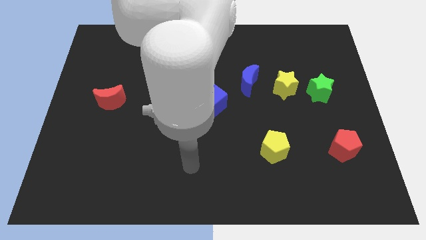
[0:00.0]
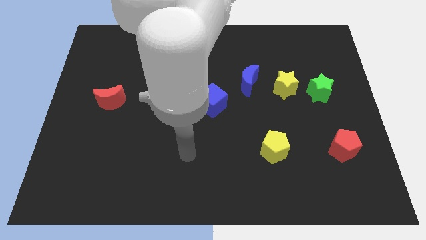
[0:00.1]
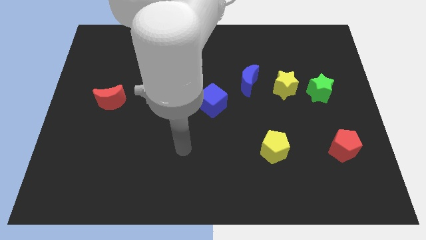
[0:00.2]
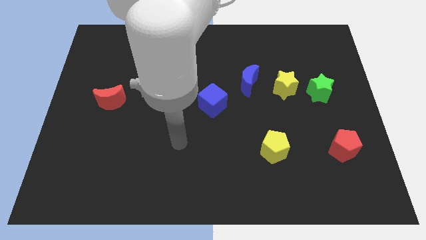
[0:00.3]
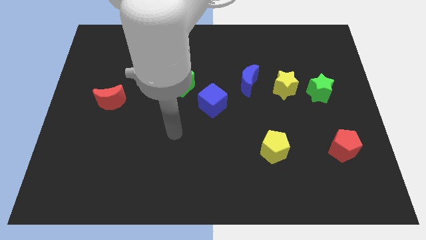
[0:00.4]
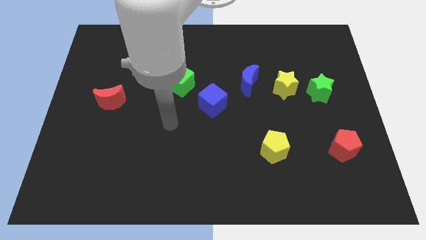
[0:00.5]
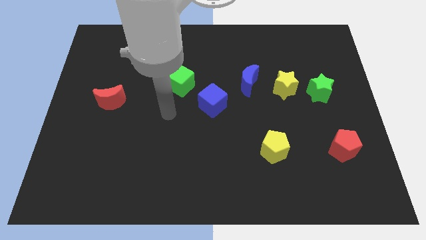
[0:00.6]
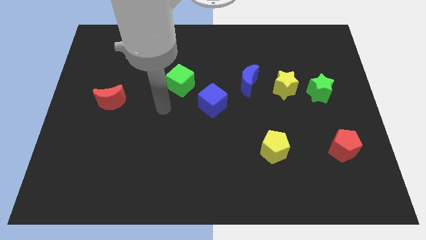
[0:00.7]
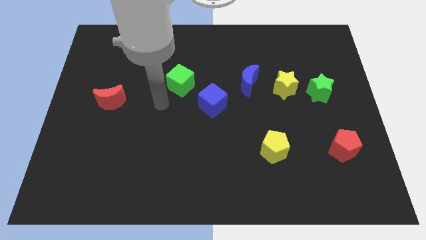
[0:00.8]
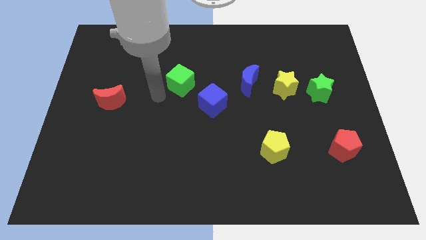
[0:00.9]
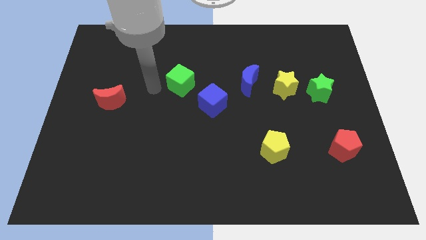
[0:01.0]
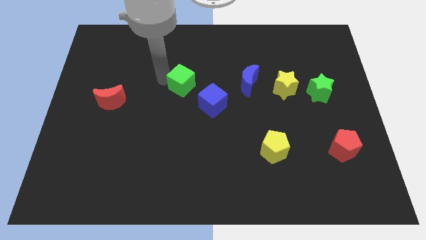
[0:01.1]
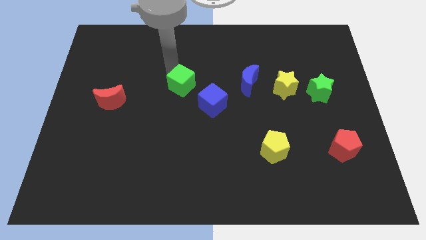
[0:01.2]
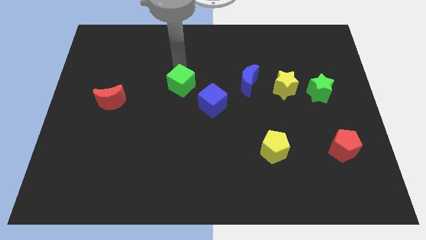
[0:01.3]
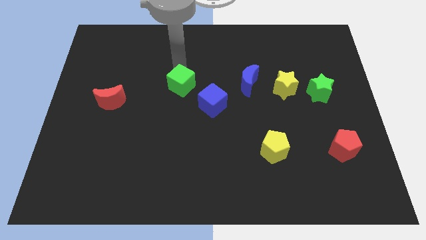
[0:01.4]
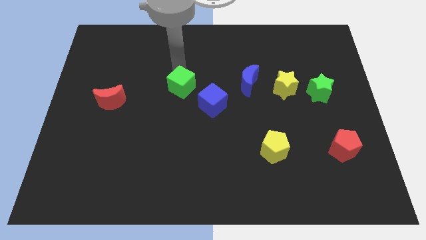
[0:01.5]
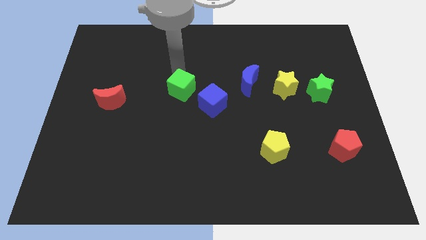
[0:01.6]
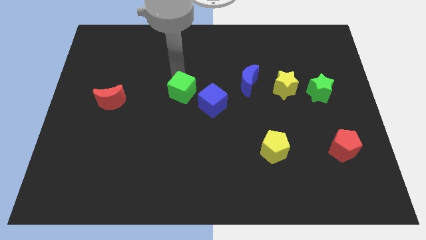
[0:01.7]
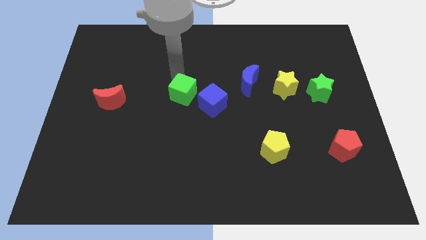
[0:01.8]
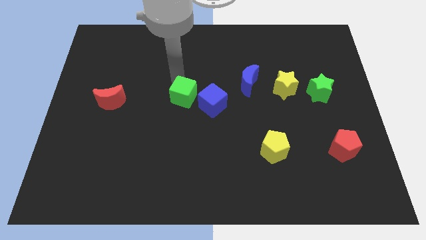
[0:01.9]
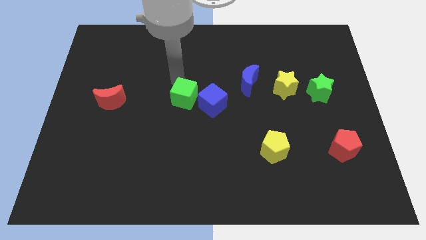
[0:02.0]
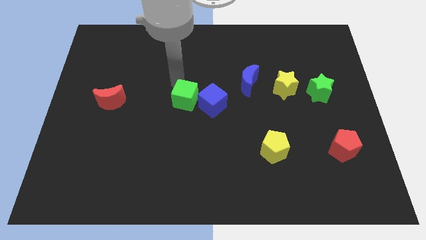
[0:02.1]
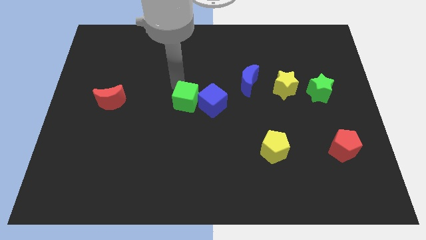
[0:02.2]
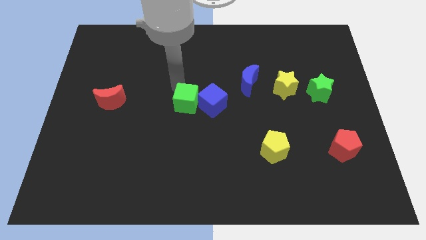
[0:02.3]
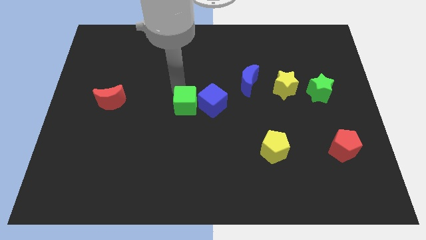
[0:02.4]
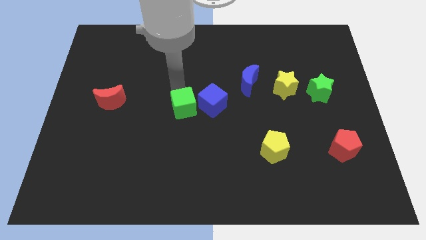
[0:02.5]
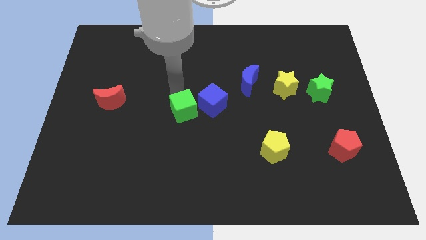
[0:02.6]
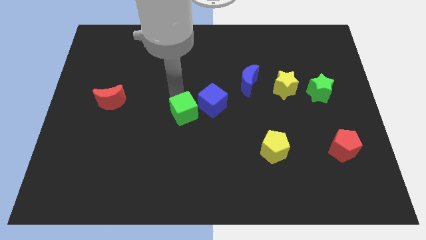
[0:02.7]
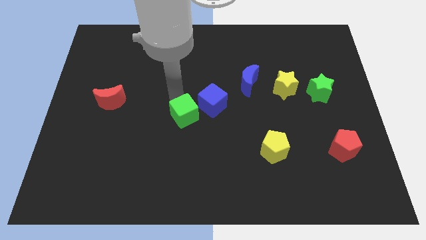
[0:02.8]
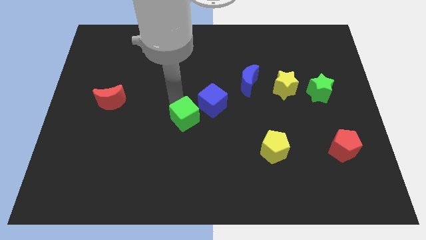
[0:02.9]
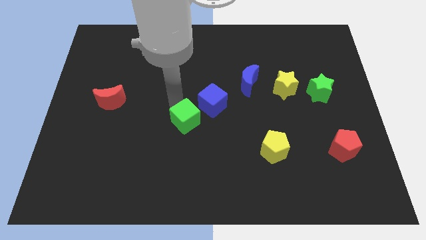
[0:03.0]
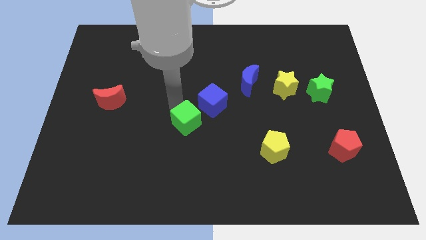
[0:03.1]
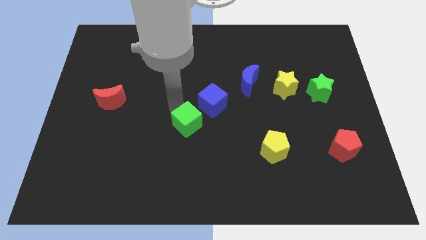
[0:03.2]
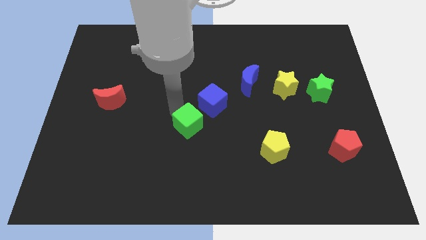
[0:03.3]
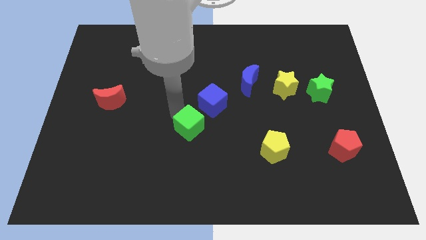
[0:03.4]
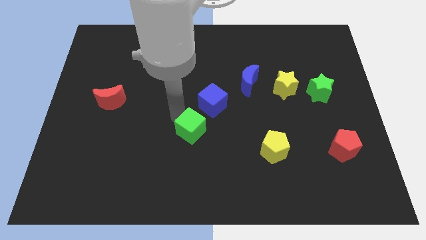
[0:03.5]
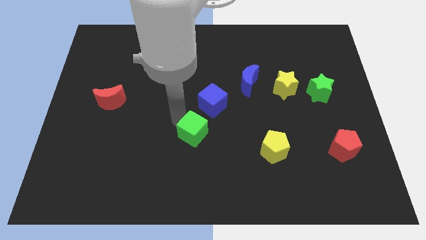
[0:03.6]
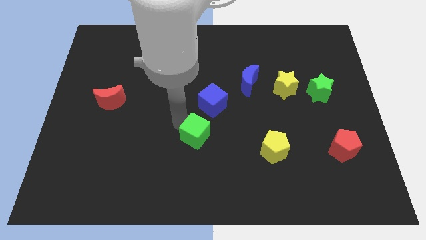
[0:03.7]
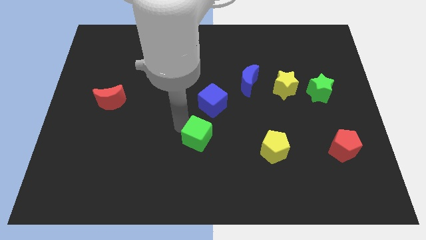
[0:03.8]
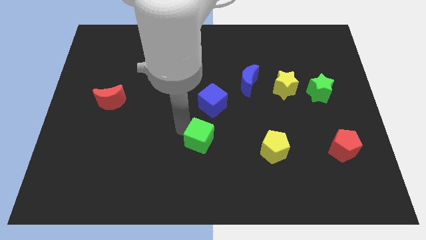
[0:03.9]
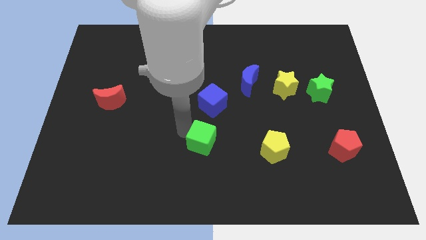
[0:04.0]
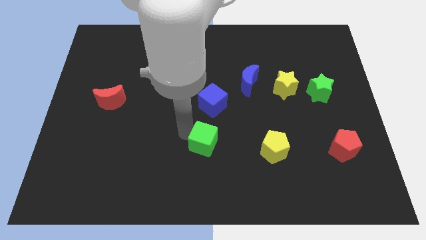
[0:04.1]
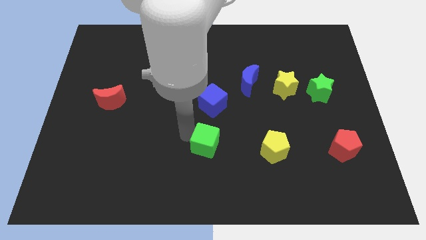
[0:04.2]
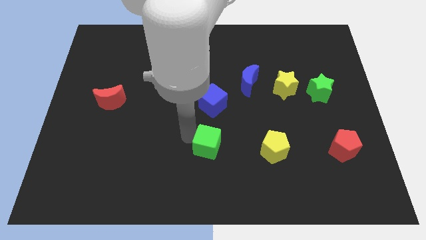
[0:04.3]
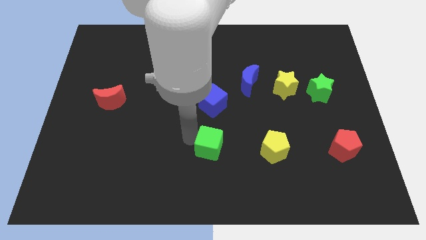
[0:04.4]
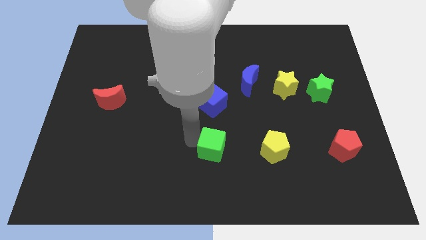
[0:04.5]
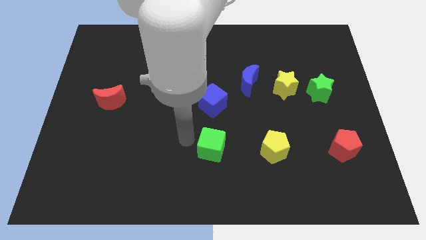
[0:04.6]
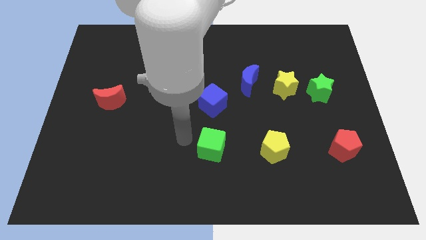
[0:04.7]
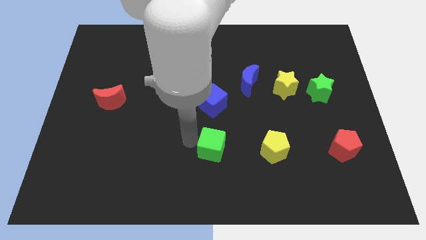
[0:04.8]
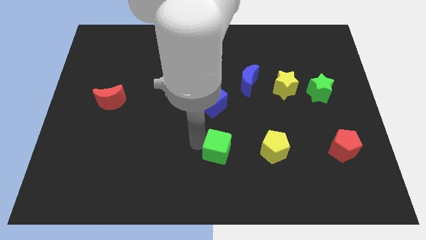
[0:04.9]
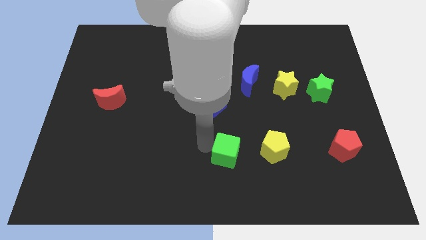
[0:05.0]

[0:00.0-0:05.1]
slide the green cube down and right

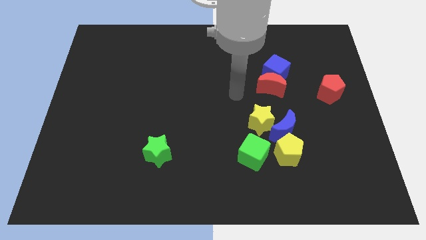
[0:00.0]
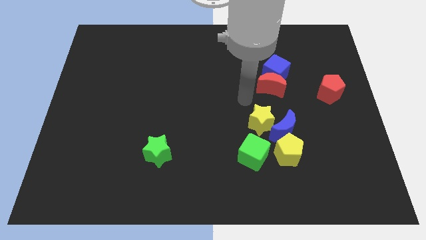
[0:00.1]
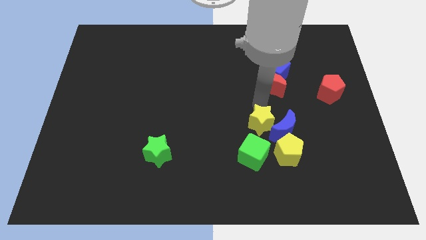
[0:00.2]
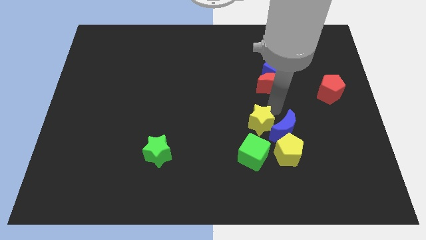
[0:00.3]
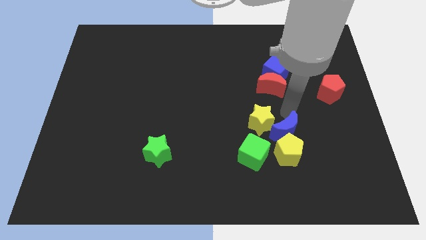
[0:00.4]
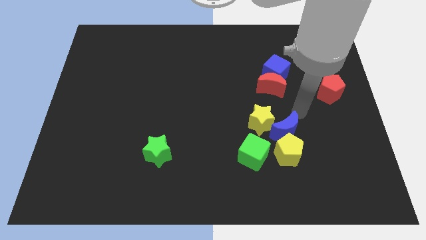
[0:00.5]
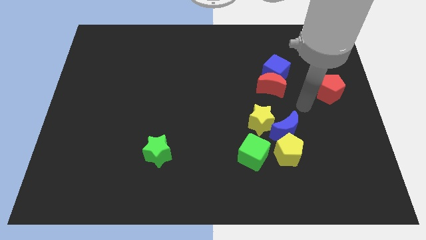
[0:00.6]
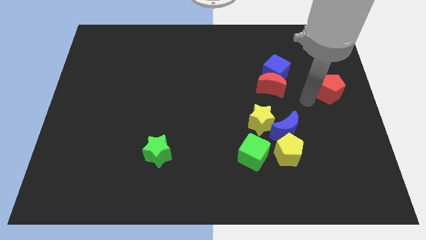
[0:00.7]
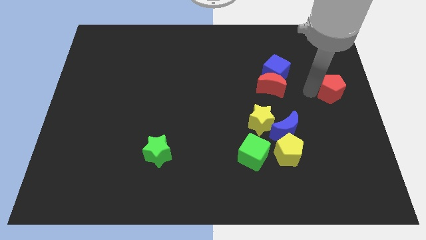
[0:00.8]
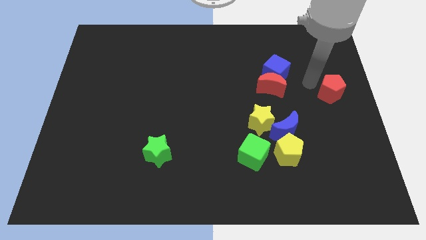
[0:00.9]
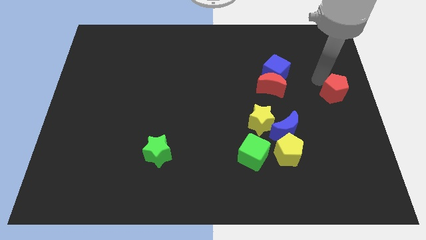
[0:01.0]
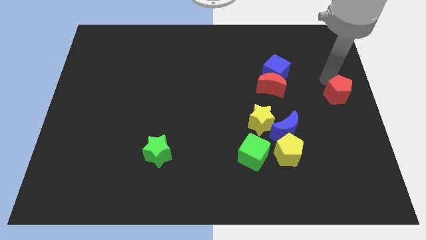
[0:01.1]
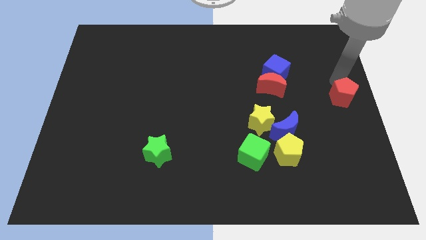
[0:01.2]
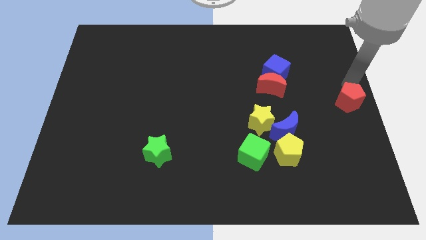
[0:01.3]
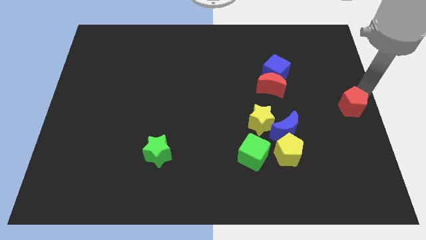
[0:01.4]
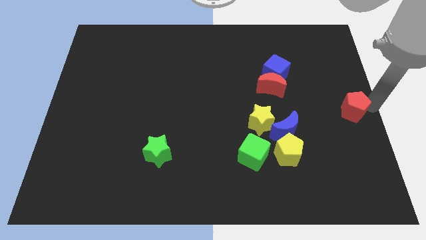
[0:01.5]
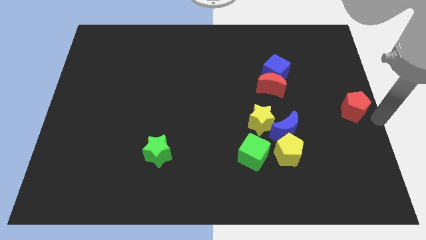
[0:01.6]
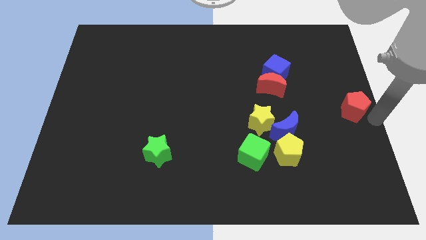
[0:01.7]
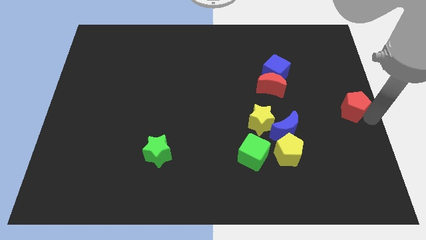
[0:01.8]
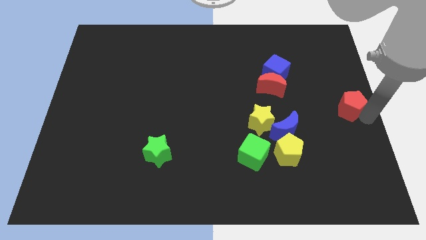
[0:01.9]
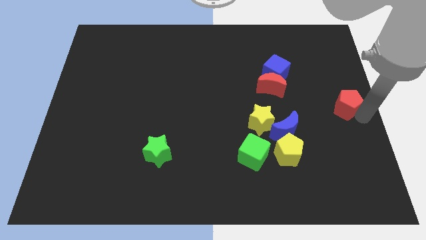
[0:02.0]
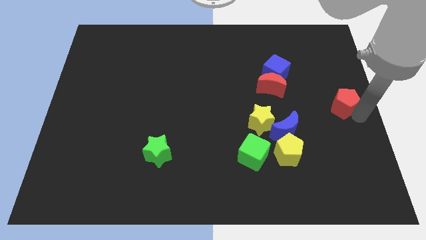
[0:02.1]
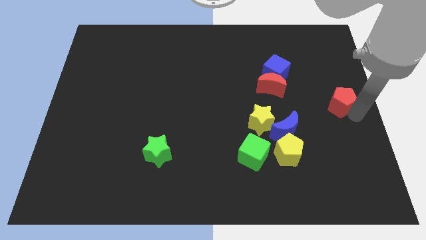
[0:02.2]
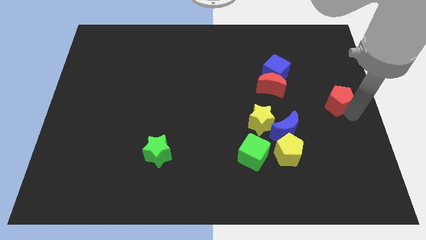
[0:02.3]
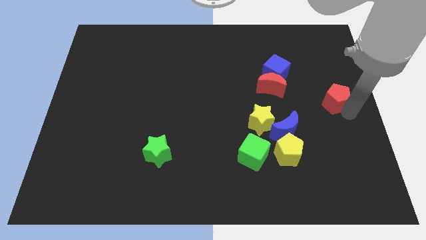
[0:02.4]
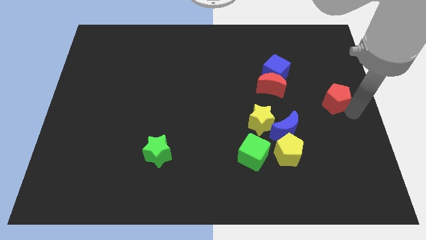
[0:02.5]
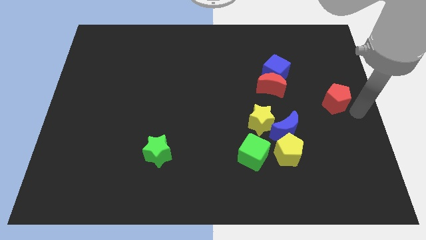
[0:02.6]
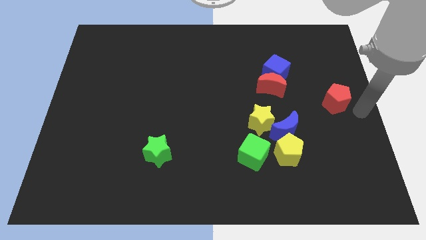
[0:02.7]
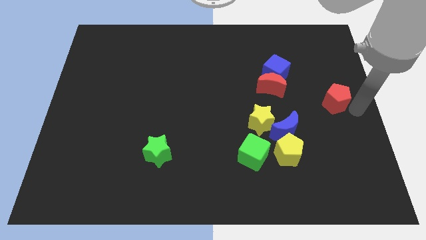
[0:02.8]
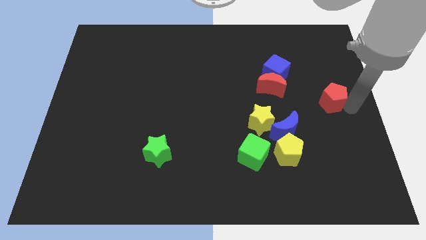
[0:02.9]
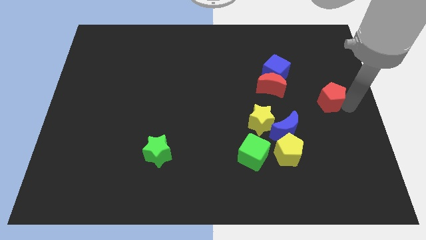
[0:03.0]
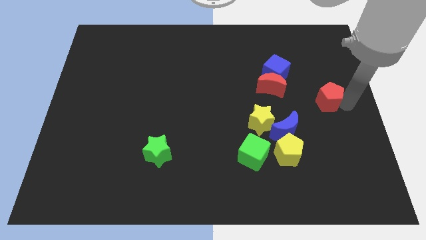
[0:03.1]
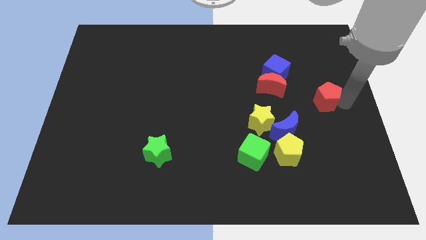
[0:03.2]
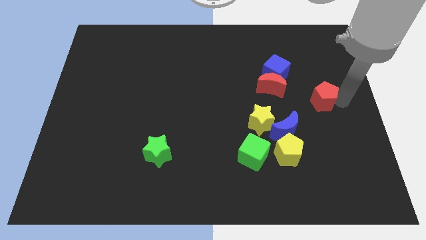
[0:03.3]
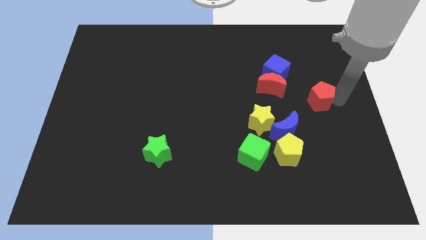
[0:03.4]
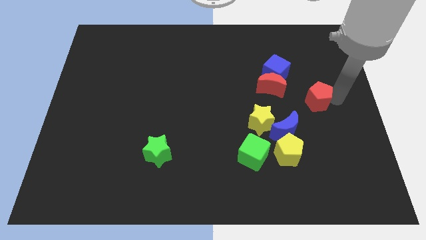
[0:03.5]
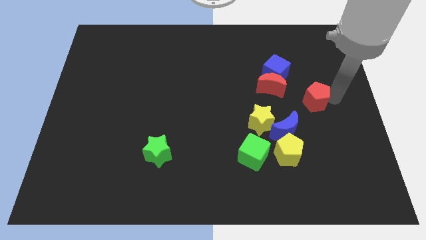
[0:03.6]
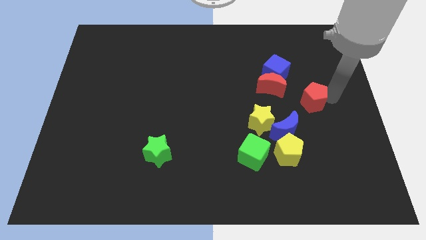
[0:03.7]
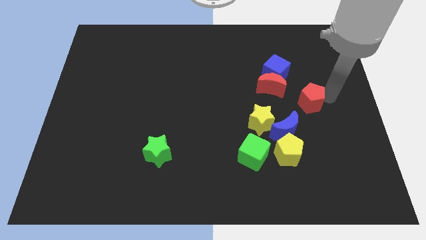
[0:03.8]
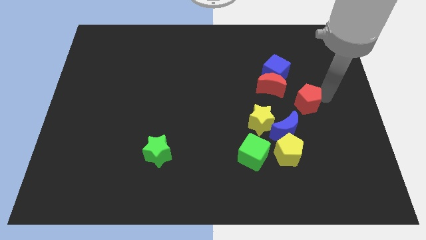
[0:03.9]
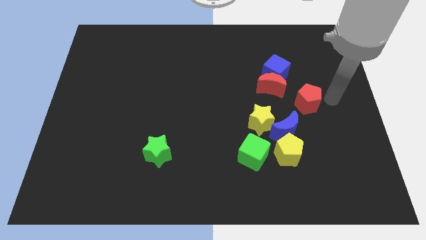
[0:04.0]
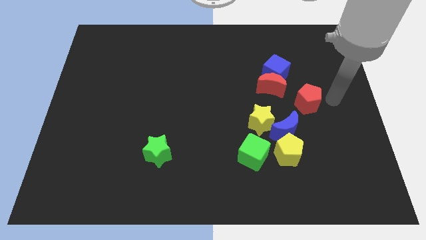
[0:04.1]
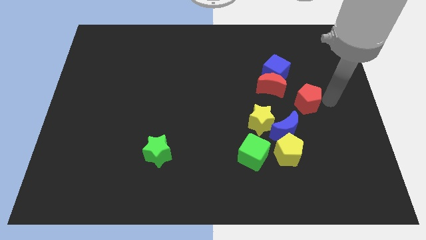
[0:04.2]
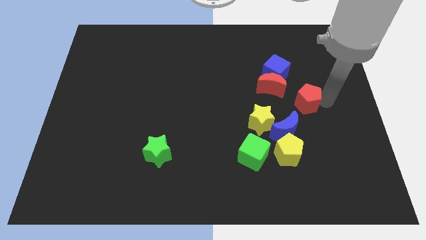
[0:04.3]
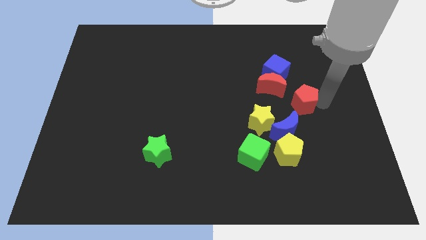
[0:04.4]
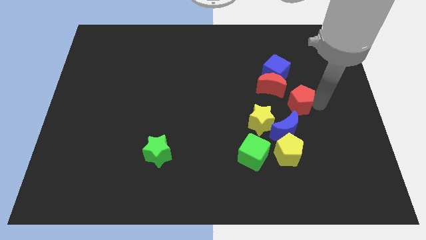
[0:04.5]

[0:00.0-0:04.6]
slightly move the red pentagon to the left
